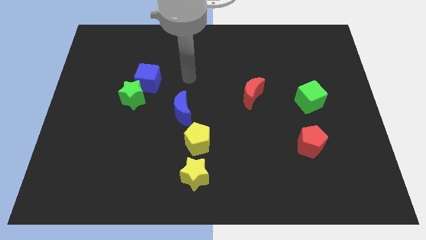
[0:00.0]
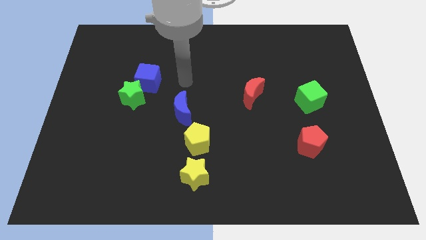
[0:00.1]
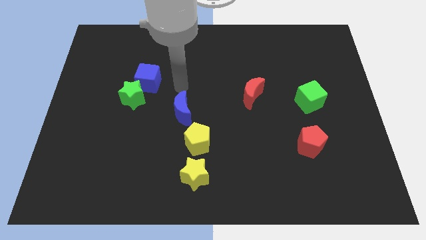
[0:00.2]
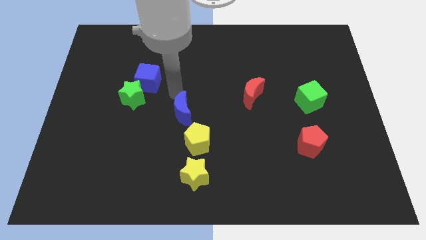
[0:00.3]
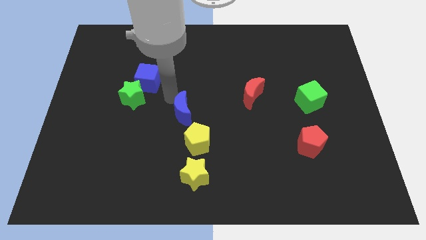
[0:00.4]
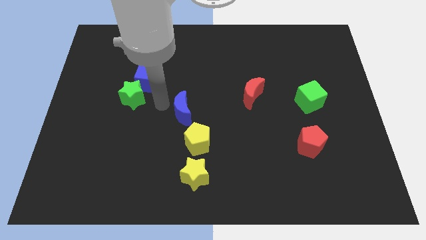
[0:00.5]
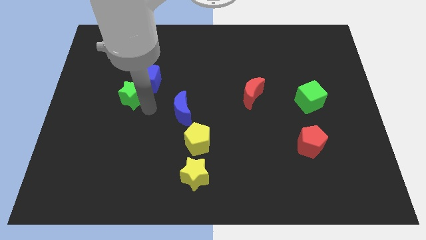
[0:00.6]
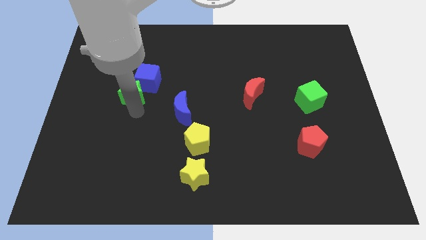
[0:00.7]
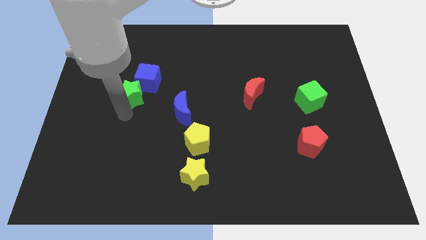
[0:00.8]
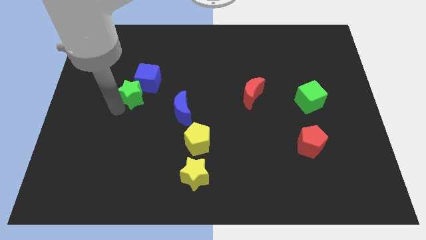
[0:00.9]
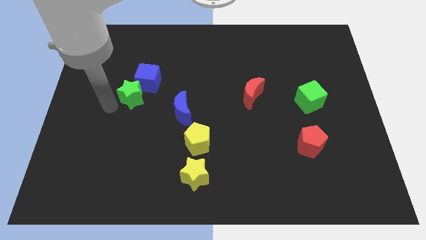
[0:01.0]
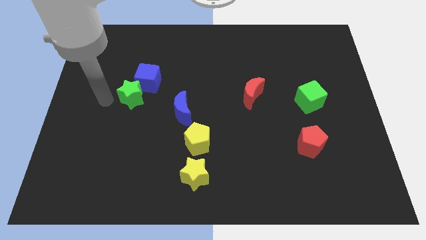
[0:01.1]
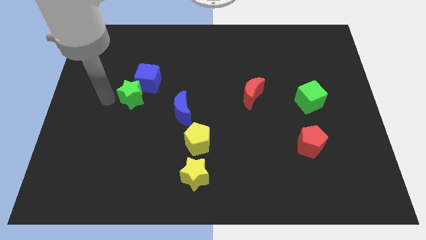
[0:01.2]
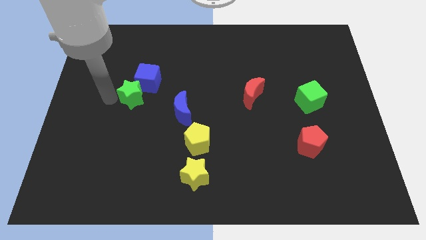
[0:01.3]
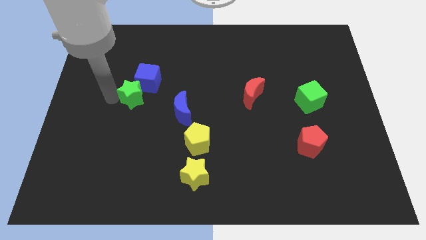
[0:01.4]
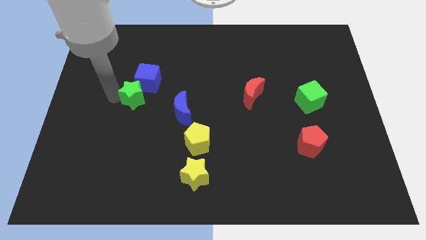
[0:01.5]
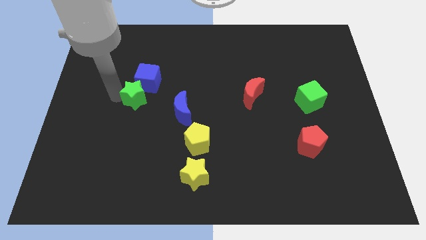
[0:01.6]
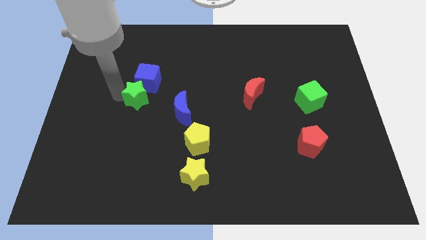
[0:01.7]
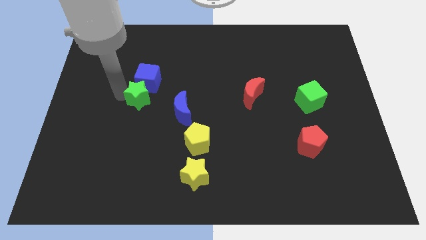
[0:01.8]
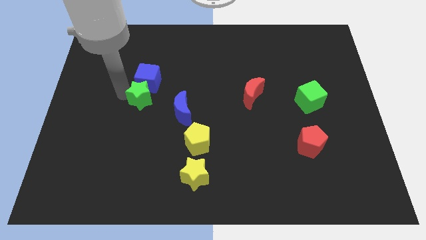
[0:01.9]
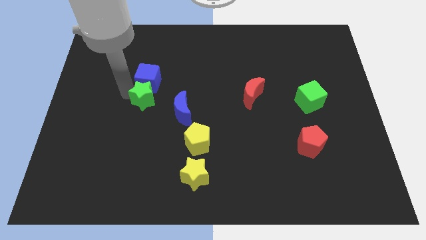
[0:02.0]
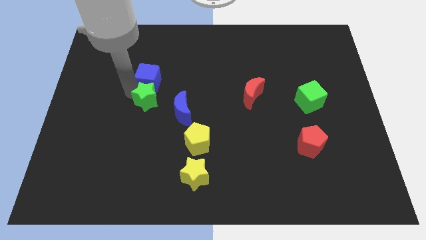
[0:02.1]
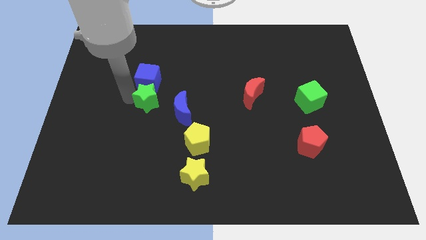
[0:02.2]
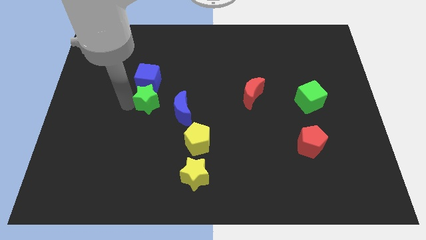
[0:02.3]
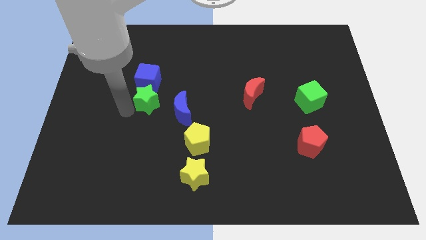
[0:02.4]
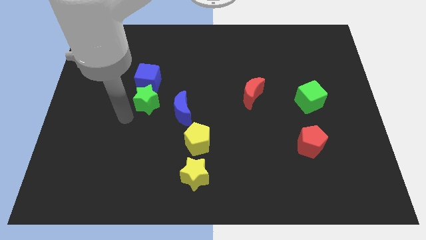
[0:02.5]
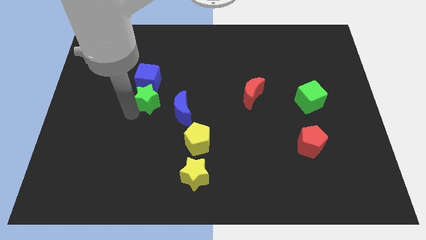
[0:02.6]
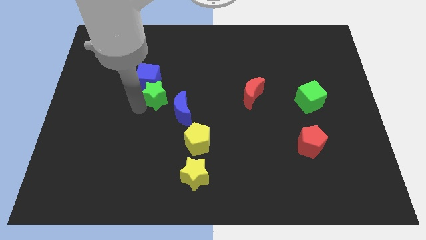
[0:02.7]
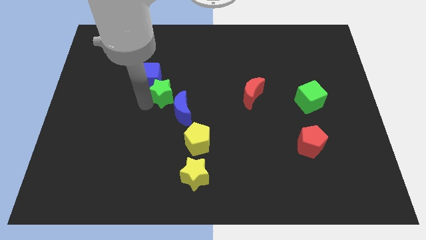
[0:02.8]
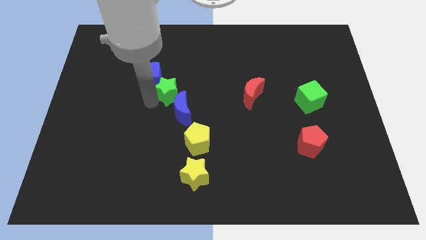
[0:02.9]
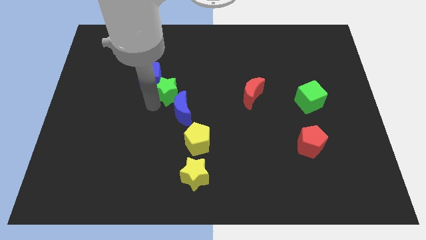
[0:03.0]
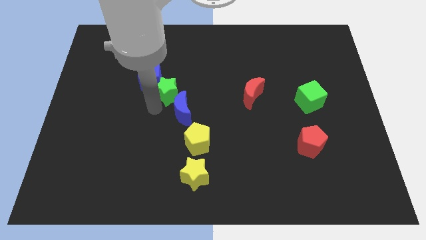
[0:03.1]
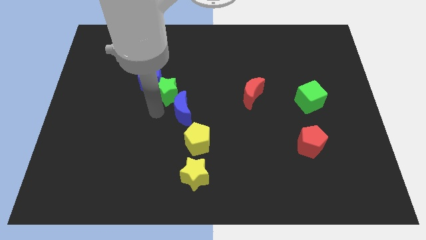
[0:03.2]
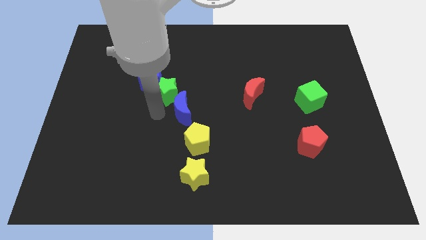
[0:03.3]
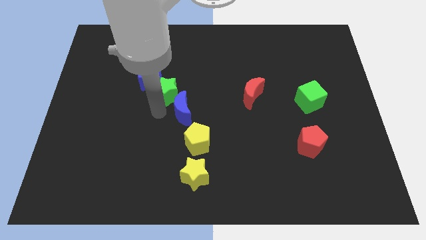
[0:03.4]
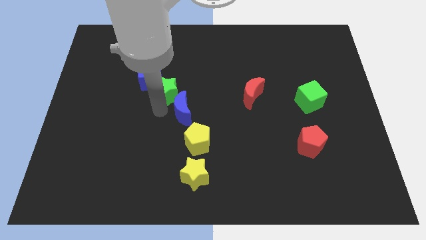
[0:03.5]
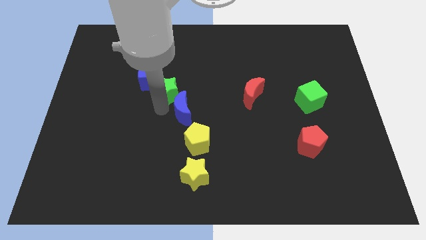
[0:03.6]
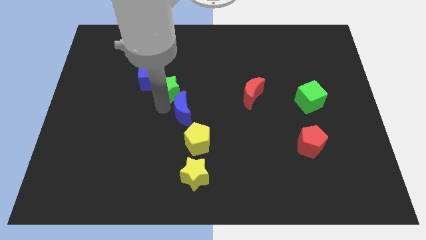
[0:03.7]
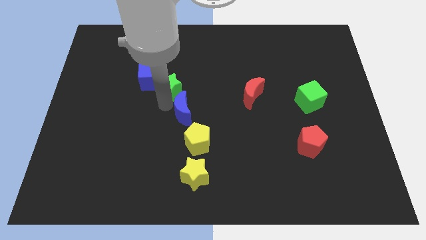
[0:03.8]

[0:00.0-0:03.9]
slightly push the green star diagonally up and to the right

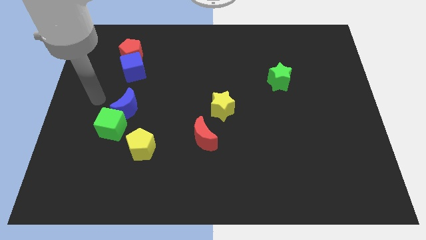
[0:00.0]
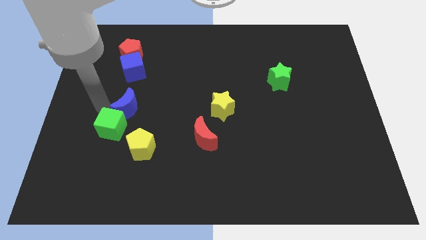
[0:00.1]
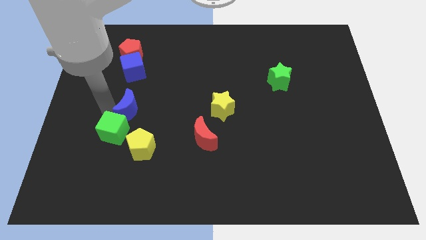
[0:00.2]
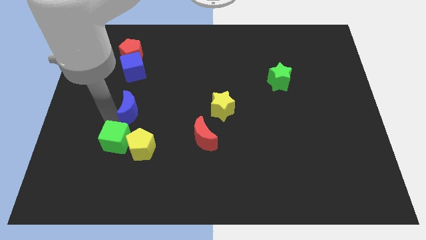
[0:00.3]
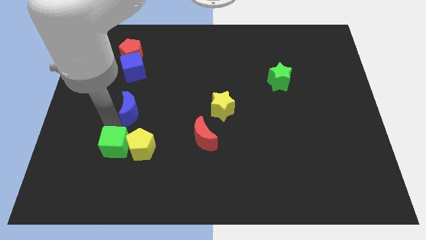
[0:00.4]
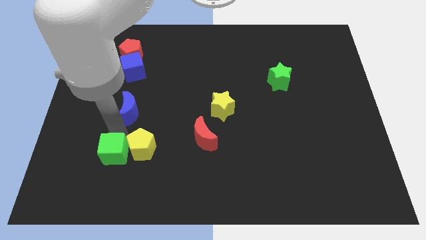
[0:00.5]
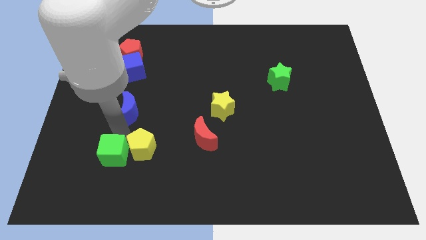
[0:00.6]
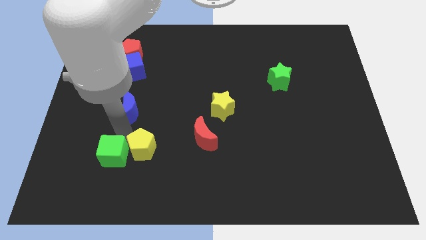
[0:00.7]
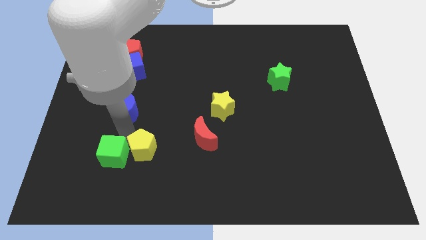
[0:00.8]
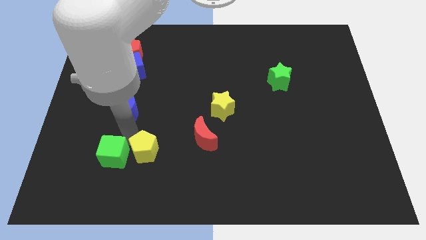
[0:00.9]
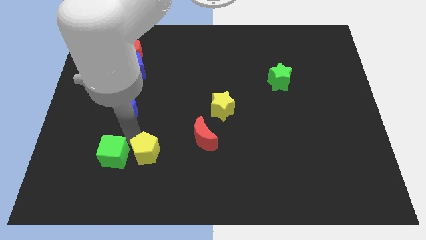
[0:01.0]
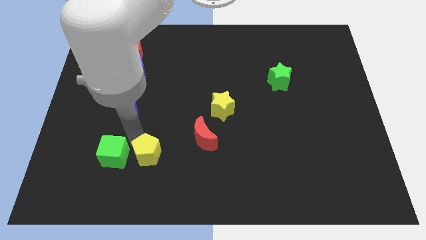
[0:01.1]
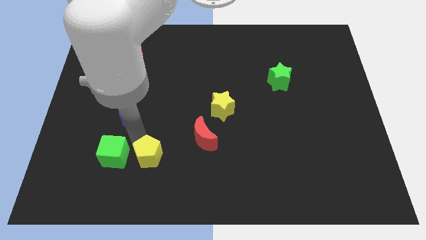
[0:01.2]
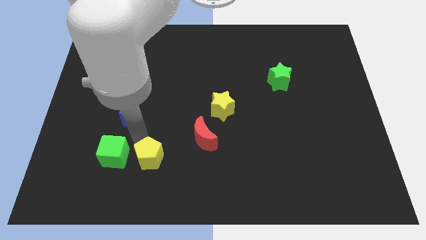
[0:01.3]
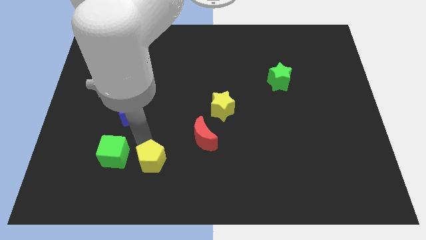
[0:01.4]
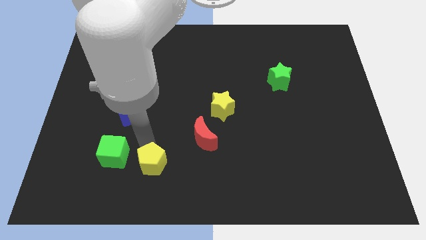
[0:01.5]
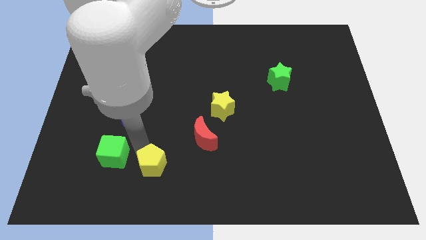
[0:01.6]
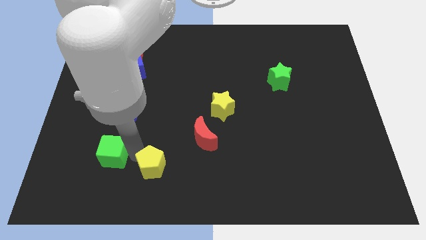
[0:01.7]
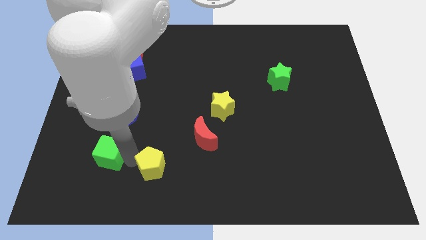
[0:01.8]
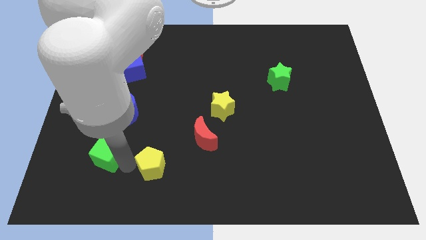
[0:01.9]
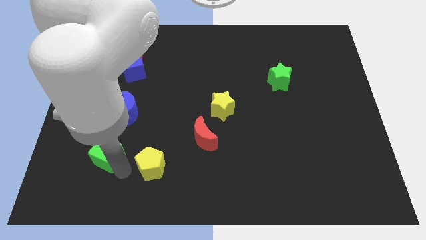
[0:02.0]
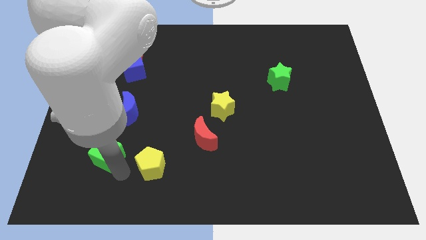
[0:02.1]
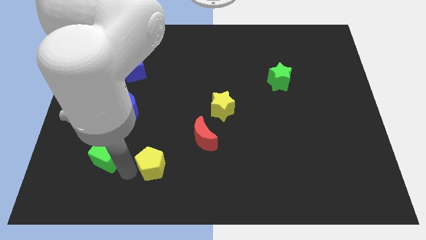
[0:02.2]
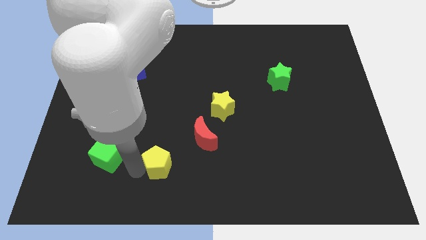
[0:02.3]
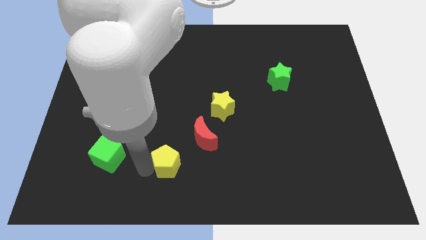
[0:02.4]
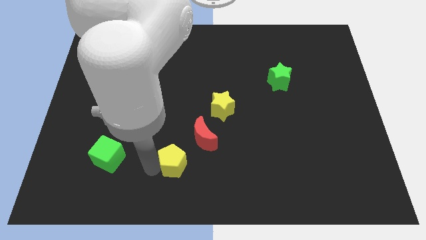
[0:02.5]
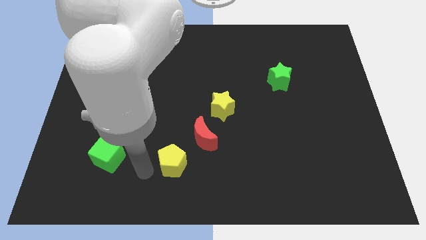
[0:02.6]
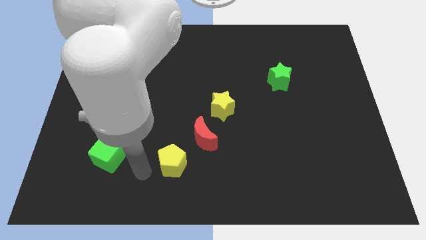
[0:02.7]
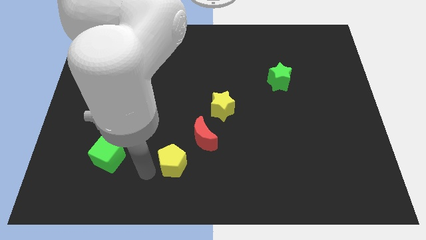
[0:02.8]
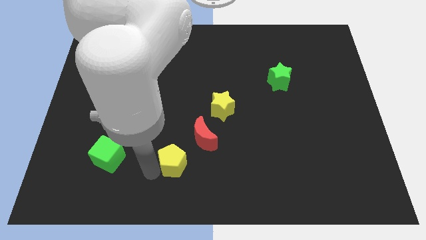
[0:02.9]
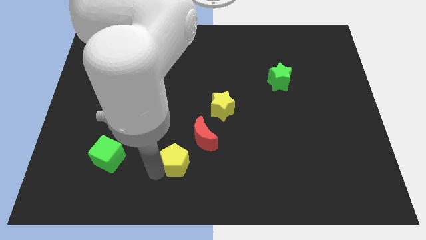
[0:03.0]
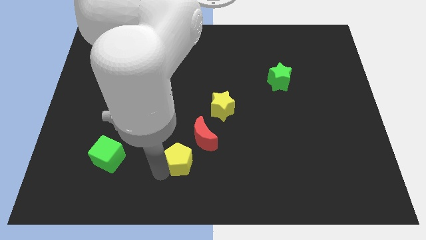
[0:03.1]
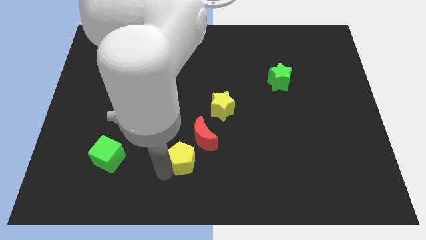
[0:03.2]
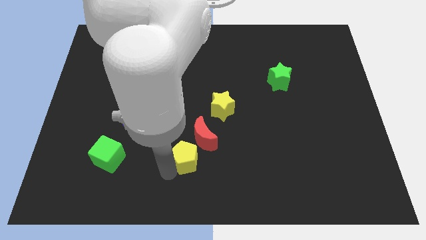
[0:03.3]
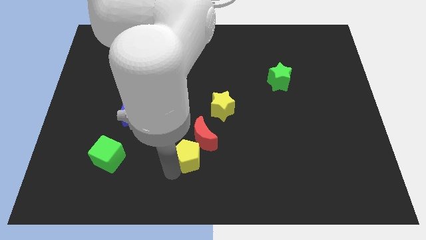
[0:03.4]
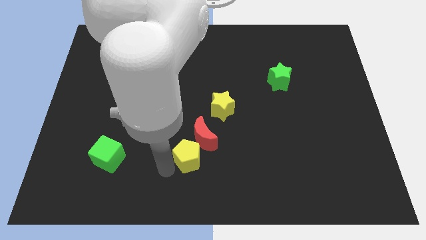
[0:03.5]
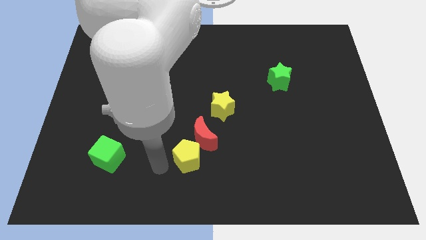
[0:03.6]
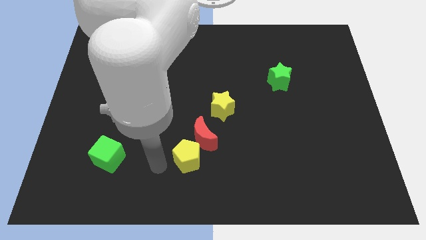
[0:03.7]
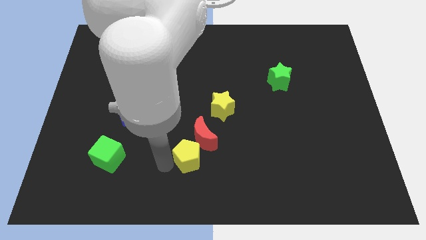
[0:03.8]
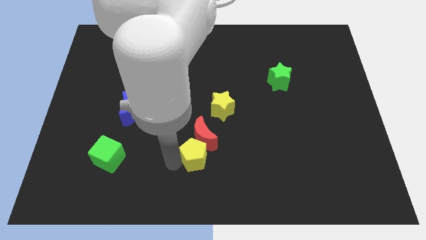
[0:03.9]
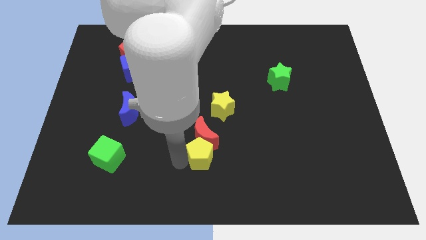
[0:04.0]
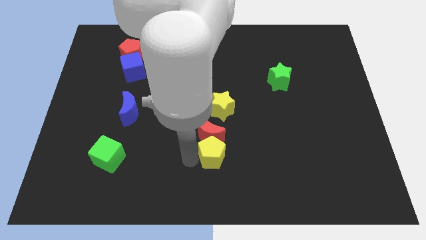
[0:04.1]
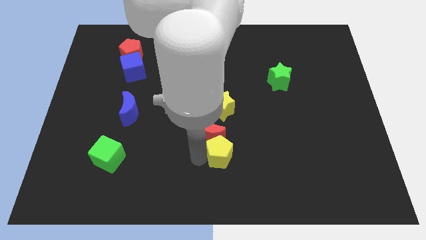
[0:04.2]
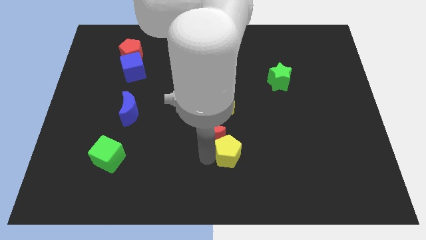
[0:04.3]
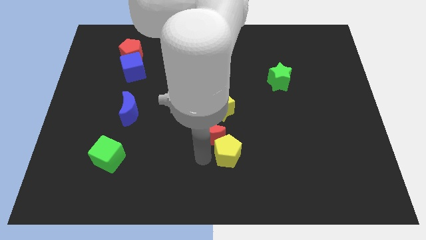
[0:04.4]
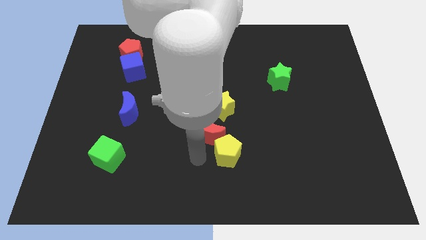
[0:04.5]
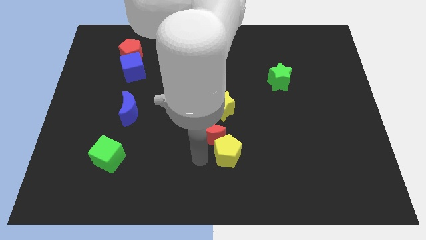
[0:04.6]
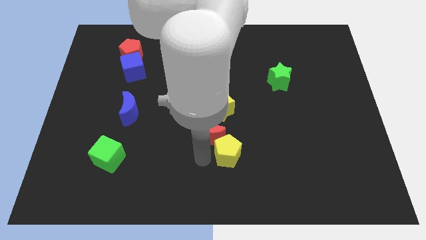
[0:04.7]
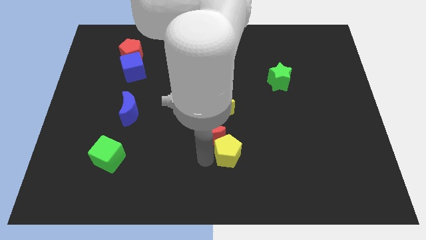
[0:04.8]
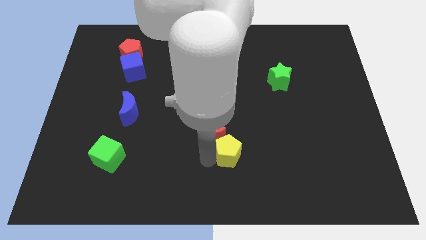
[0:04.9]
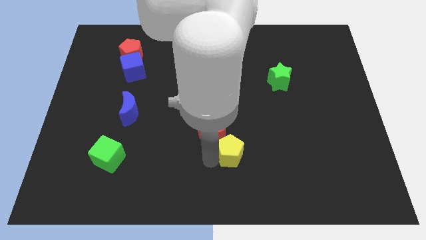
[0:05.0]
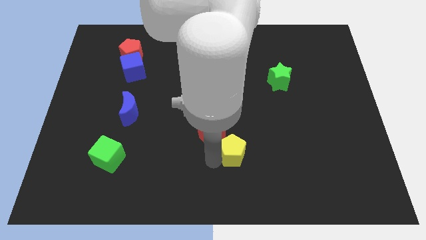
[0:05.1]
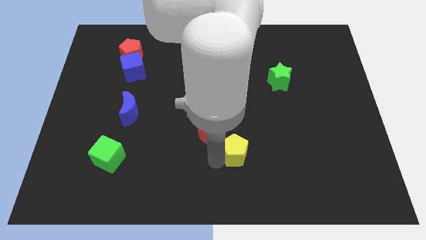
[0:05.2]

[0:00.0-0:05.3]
slide the yellow pentagon right
